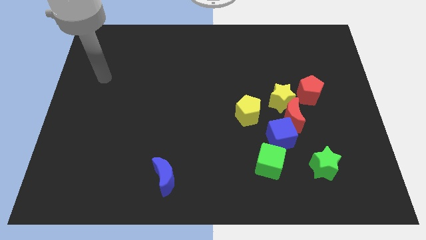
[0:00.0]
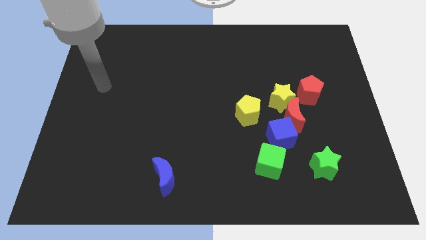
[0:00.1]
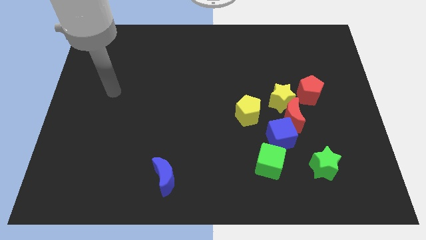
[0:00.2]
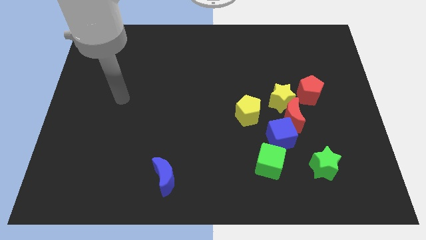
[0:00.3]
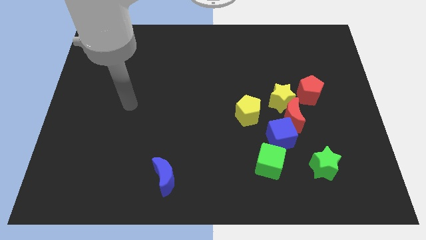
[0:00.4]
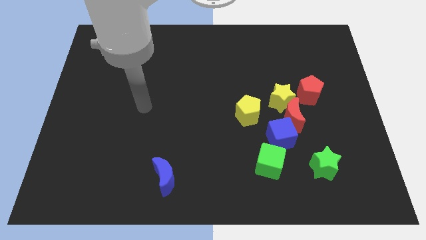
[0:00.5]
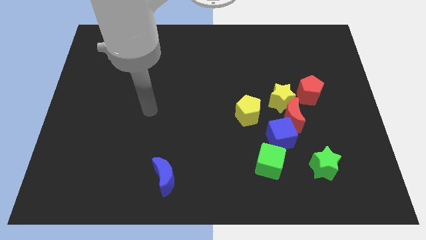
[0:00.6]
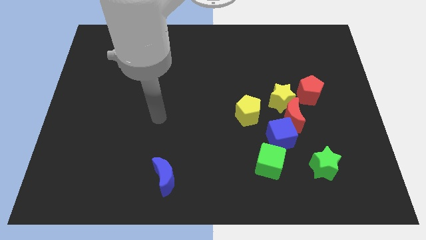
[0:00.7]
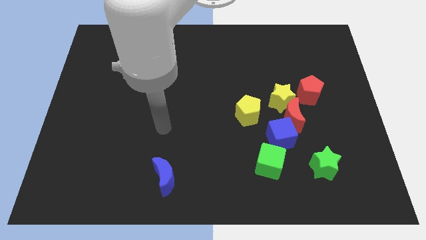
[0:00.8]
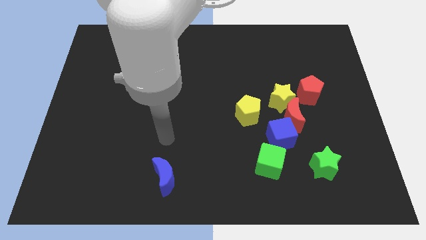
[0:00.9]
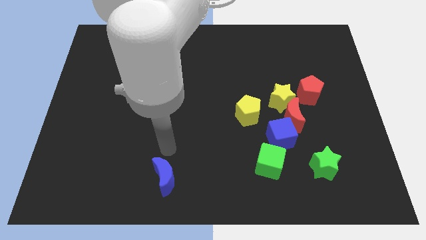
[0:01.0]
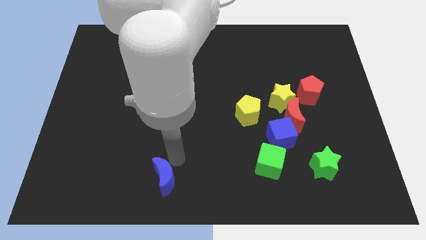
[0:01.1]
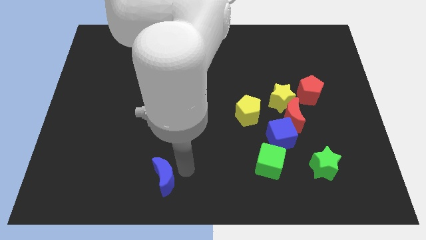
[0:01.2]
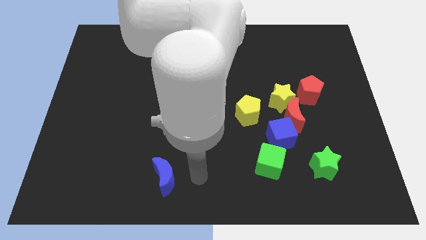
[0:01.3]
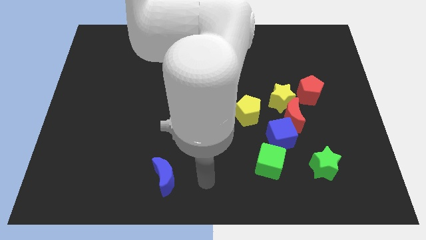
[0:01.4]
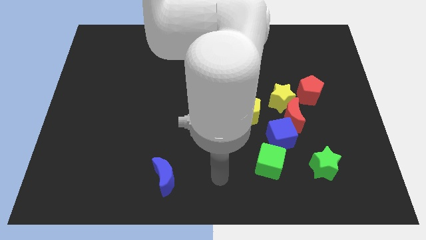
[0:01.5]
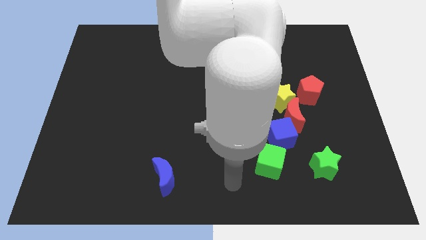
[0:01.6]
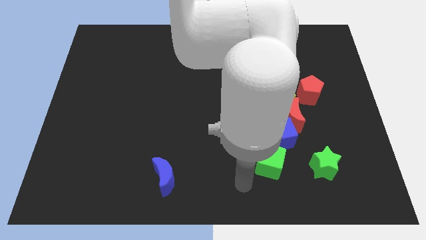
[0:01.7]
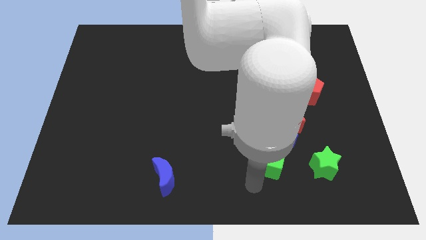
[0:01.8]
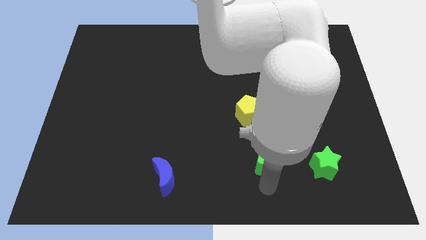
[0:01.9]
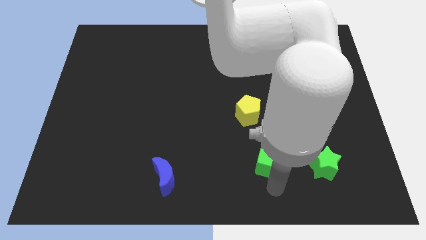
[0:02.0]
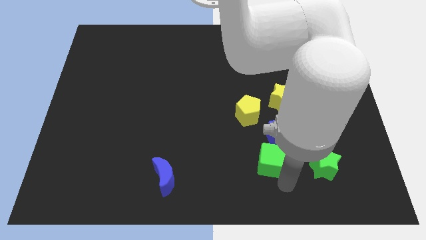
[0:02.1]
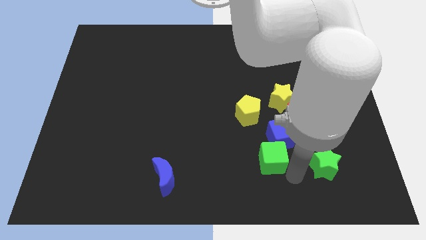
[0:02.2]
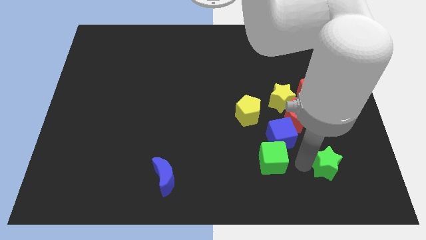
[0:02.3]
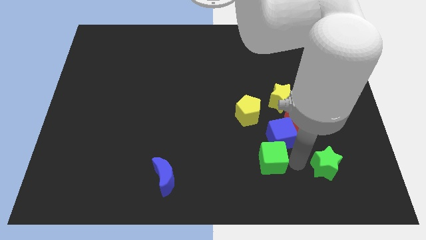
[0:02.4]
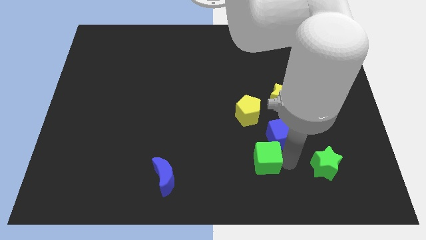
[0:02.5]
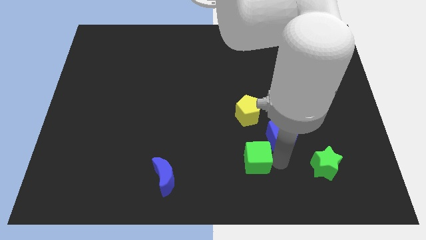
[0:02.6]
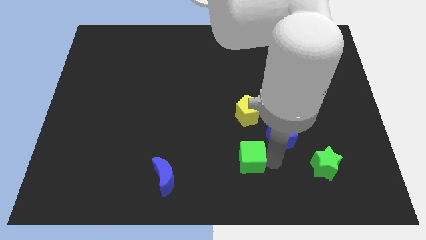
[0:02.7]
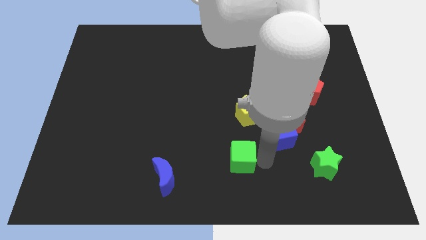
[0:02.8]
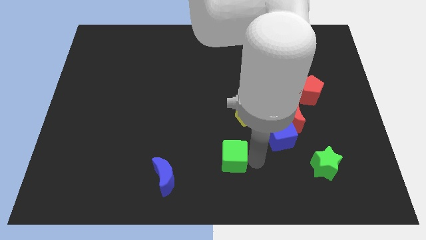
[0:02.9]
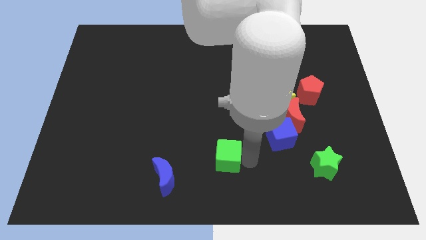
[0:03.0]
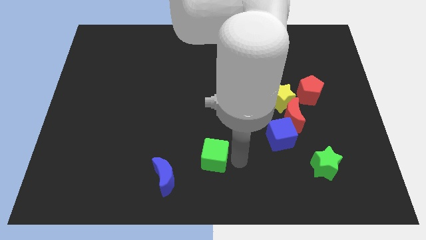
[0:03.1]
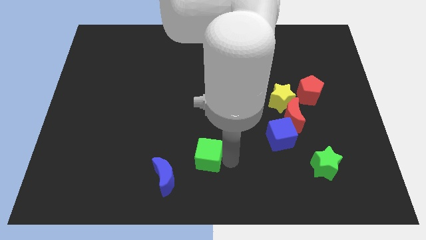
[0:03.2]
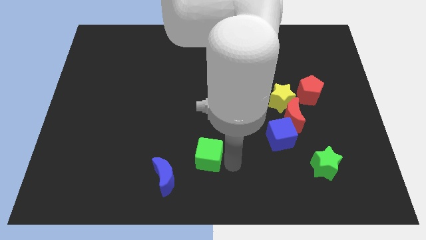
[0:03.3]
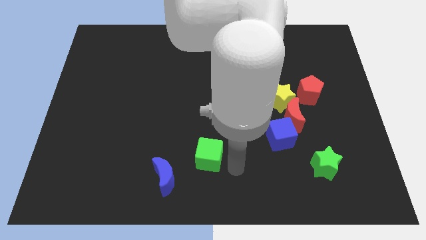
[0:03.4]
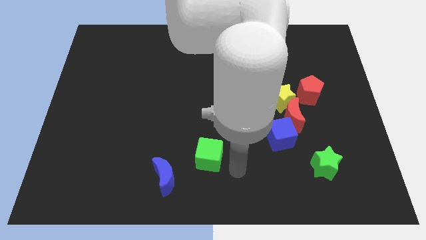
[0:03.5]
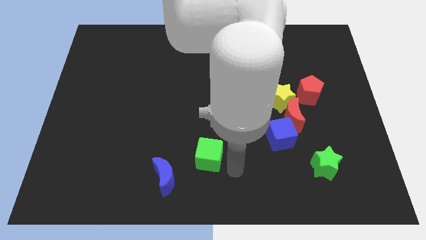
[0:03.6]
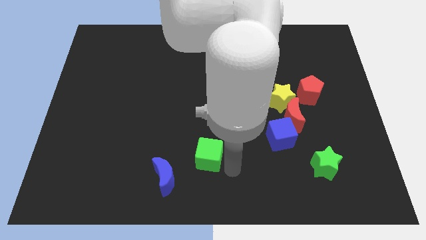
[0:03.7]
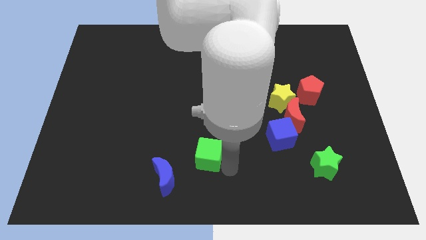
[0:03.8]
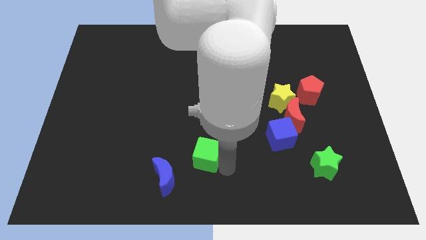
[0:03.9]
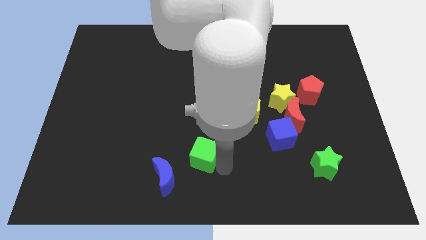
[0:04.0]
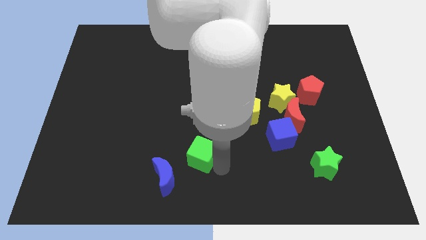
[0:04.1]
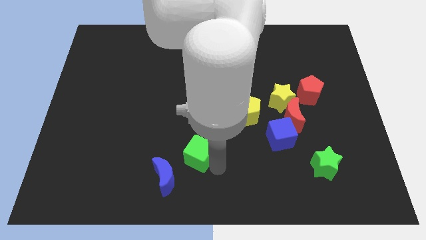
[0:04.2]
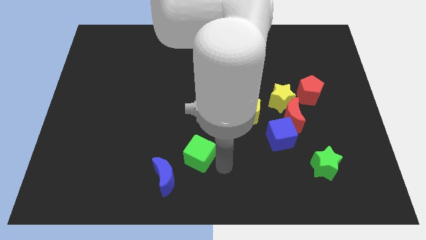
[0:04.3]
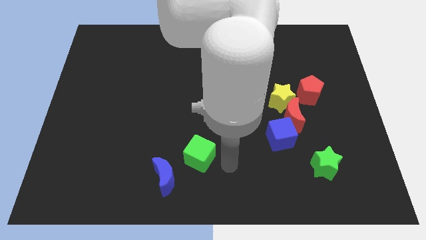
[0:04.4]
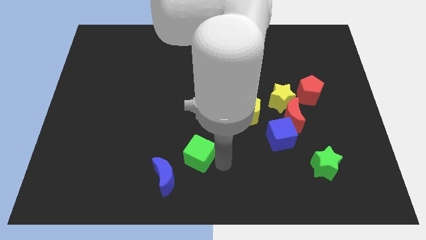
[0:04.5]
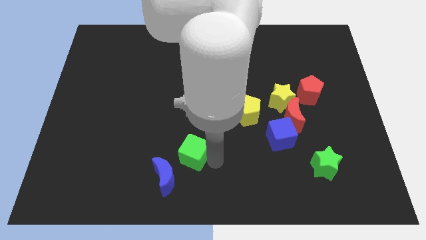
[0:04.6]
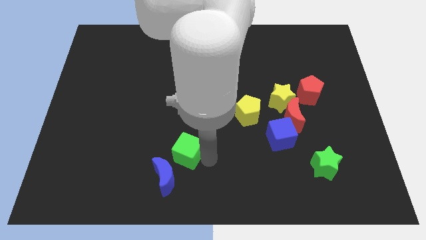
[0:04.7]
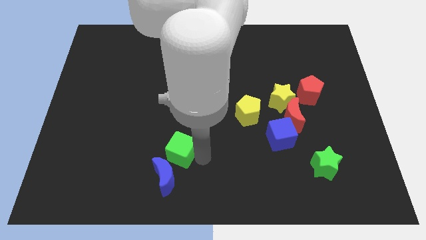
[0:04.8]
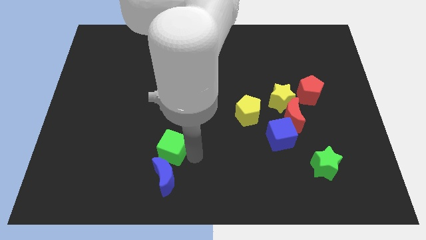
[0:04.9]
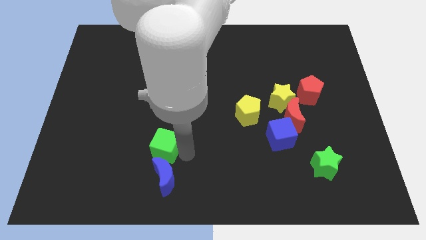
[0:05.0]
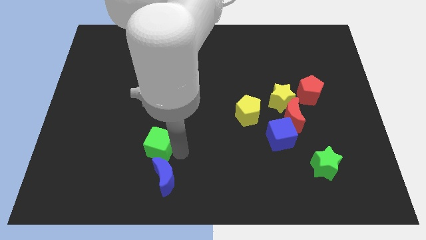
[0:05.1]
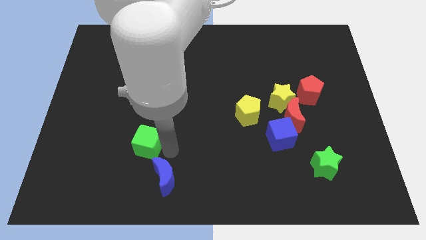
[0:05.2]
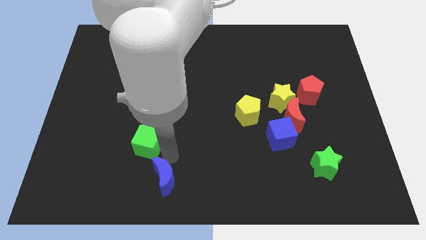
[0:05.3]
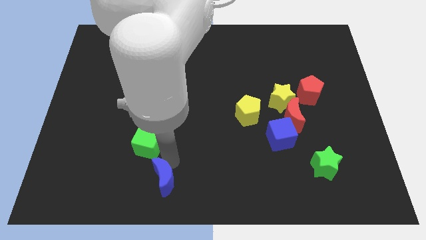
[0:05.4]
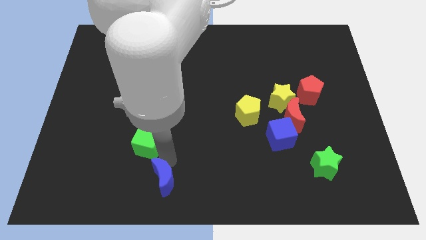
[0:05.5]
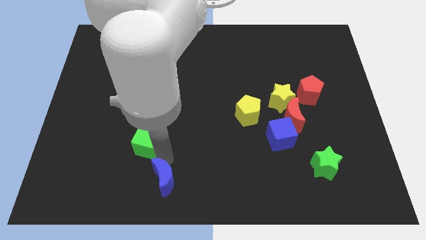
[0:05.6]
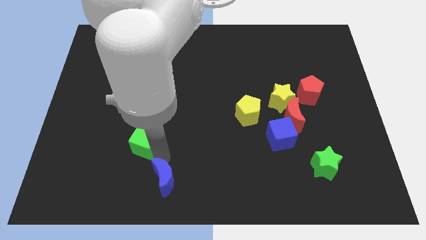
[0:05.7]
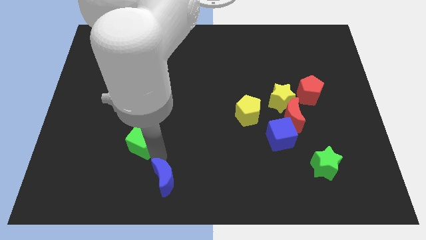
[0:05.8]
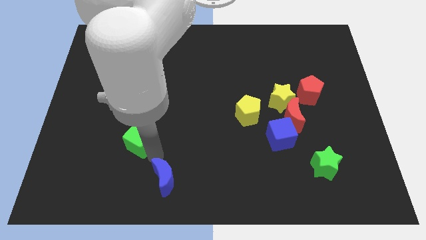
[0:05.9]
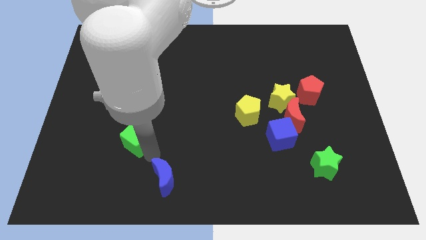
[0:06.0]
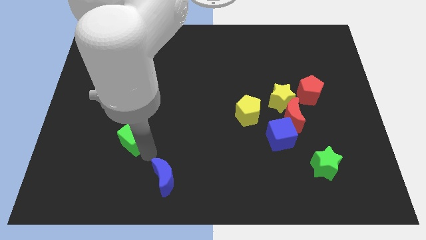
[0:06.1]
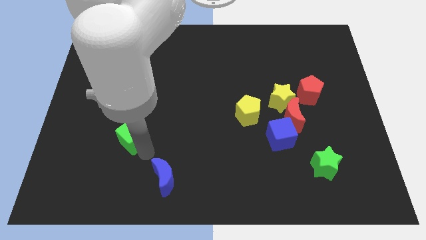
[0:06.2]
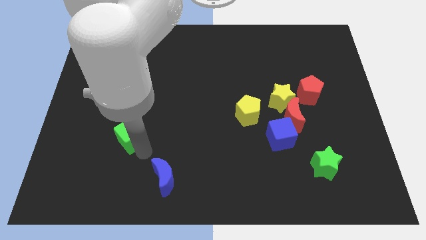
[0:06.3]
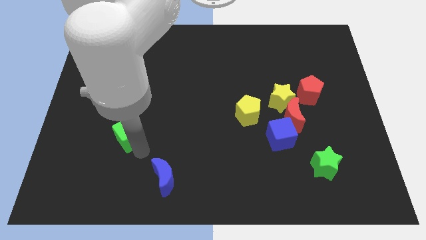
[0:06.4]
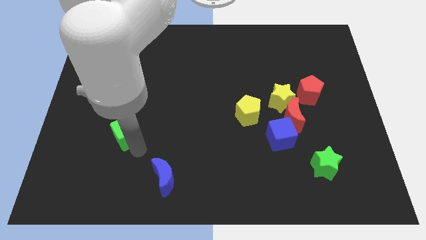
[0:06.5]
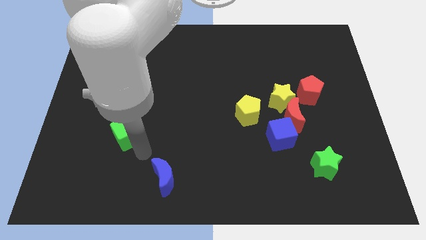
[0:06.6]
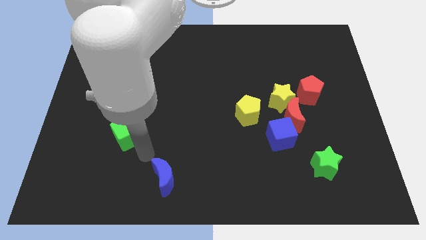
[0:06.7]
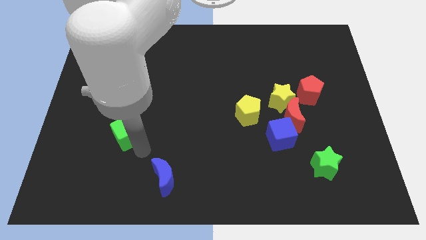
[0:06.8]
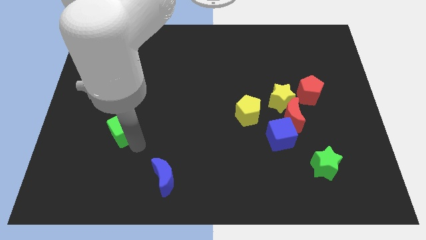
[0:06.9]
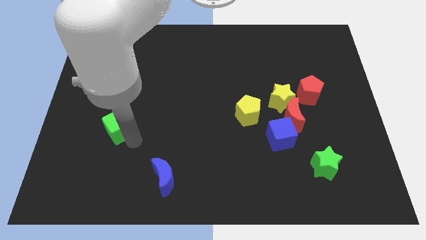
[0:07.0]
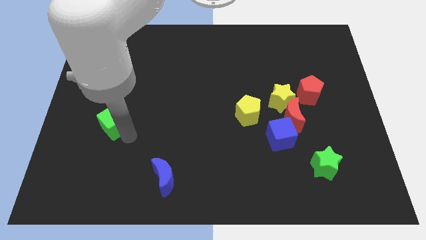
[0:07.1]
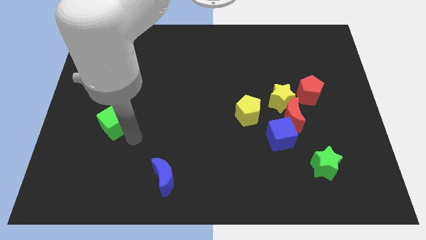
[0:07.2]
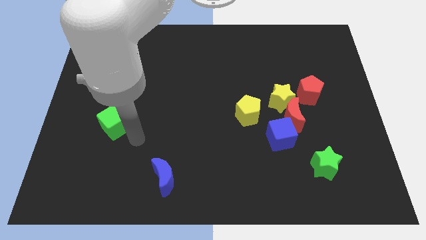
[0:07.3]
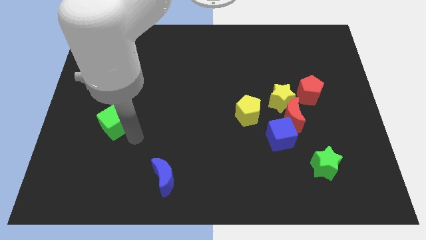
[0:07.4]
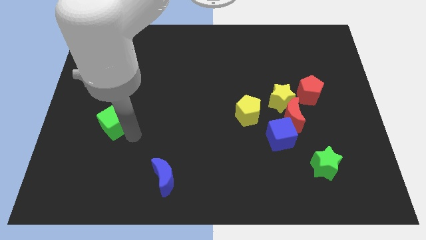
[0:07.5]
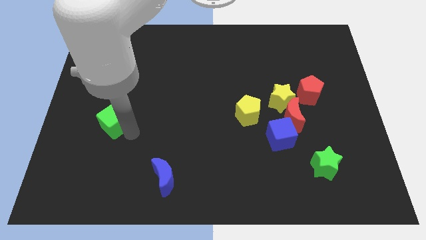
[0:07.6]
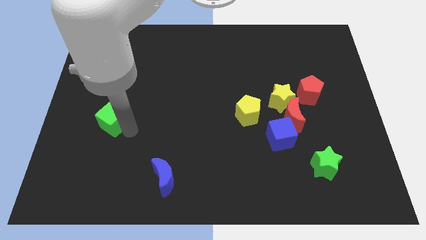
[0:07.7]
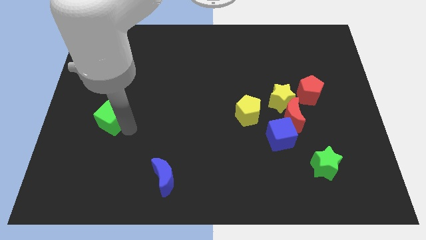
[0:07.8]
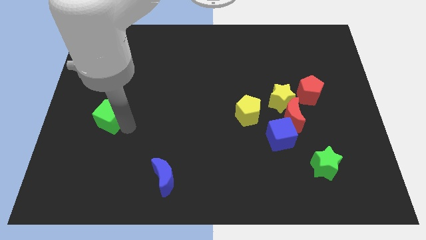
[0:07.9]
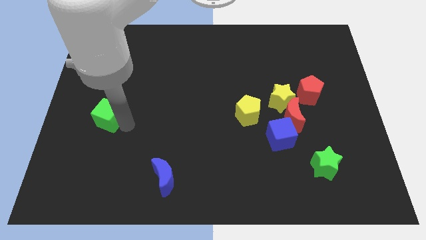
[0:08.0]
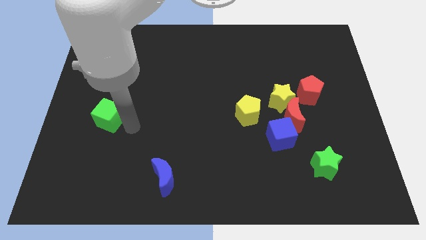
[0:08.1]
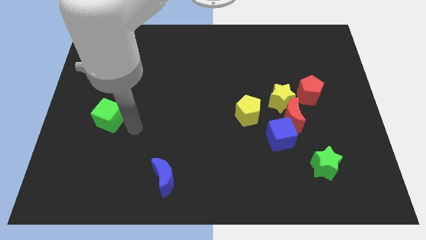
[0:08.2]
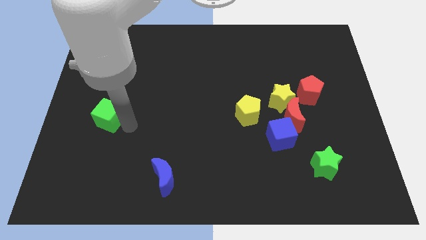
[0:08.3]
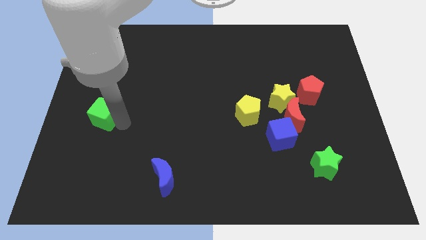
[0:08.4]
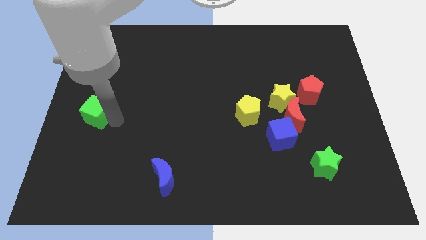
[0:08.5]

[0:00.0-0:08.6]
push the green cube to the left side of the board
